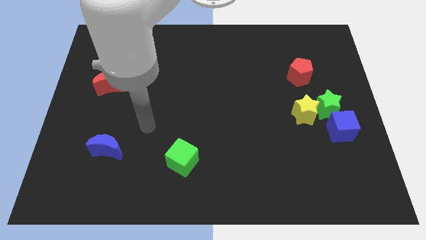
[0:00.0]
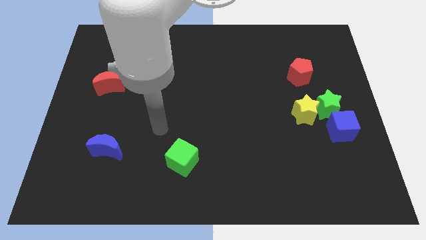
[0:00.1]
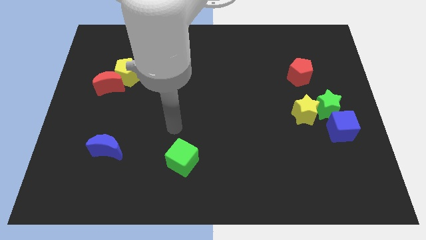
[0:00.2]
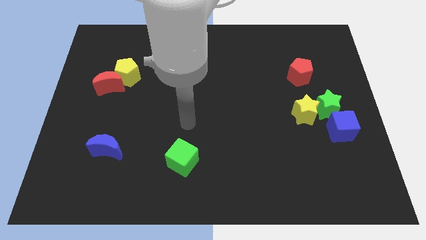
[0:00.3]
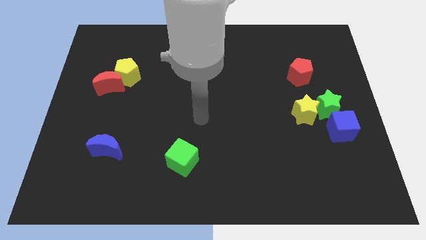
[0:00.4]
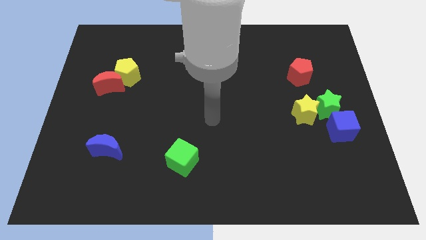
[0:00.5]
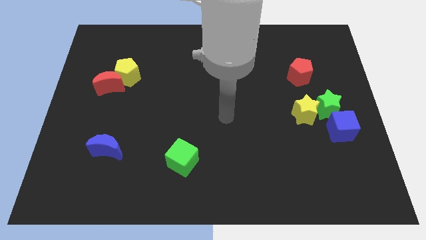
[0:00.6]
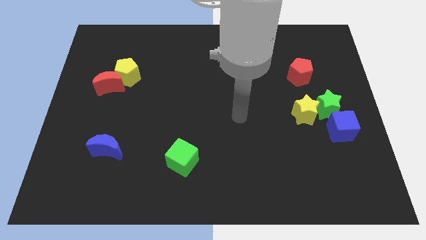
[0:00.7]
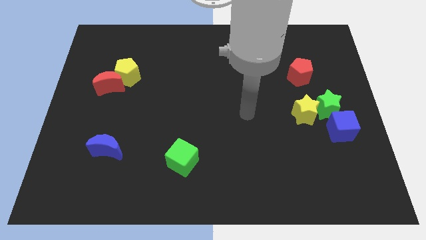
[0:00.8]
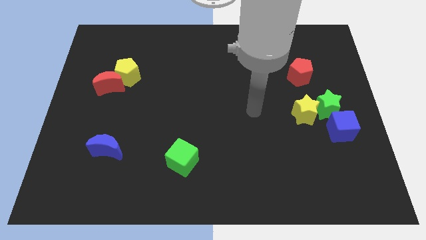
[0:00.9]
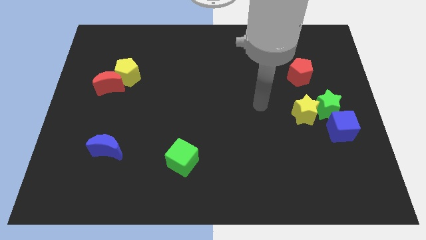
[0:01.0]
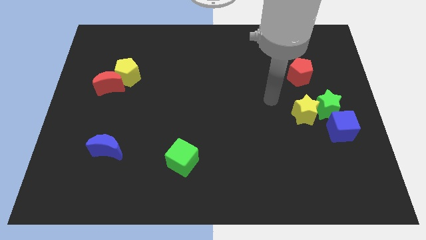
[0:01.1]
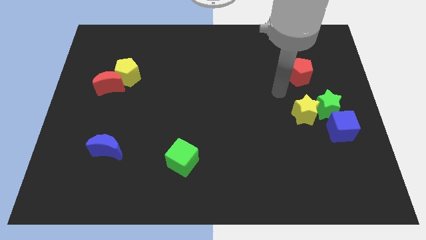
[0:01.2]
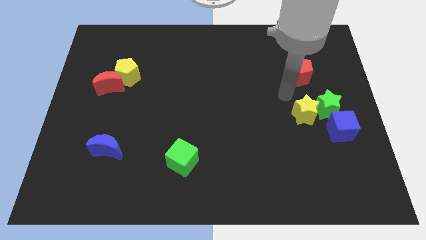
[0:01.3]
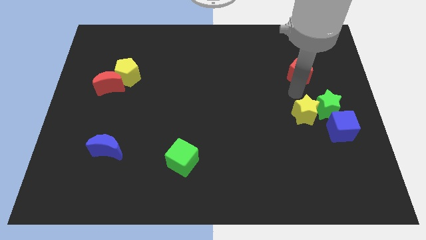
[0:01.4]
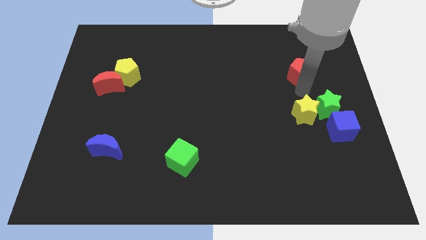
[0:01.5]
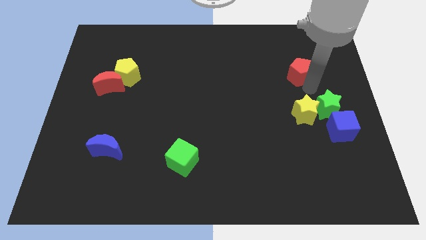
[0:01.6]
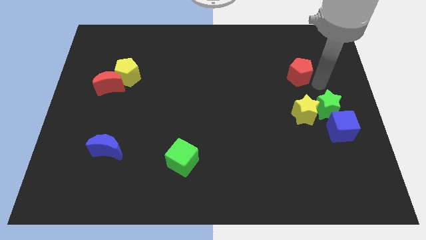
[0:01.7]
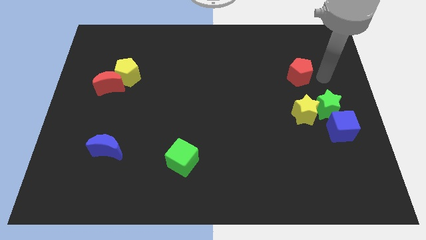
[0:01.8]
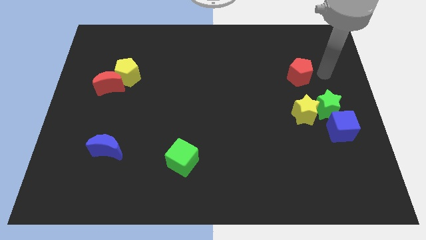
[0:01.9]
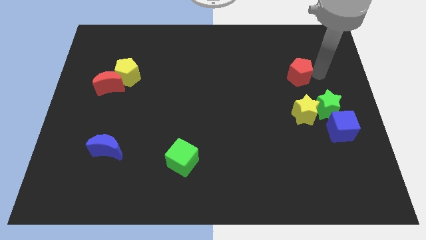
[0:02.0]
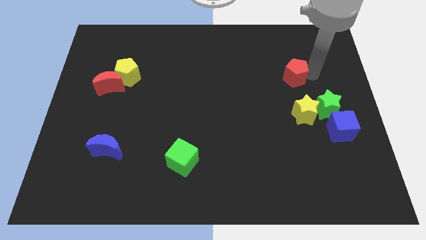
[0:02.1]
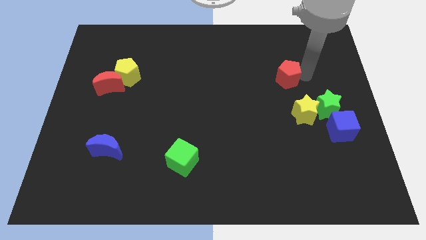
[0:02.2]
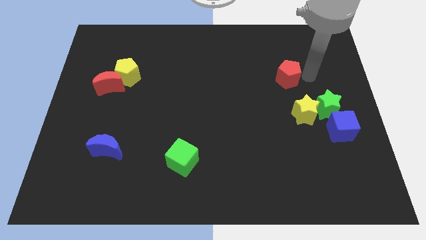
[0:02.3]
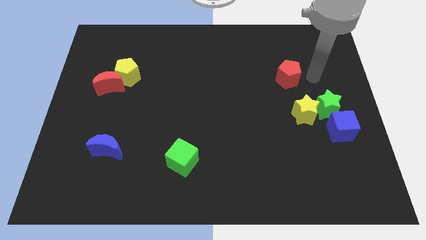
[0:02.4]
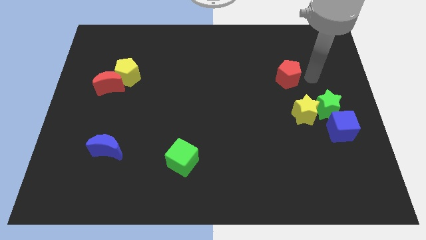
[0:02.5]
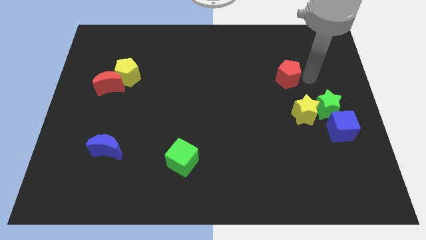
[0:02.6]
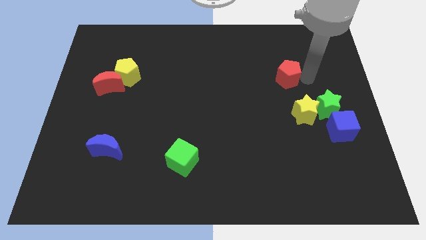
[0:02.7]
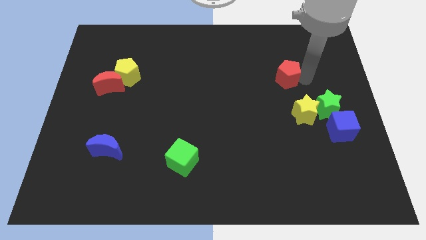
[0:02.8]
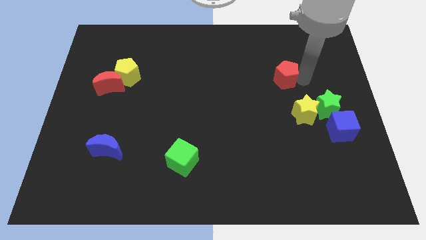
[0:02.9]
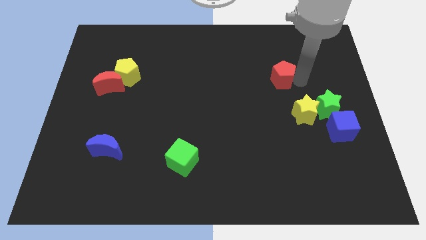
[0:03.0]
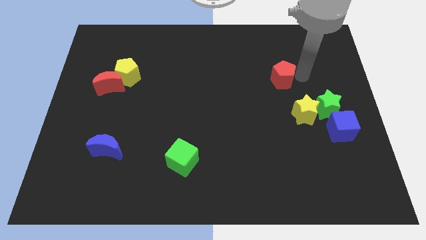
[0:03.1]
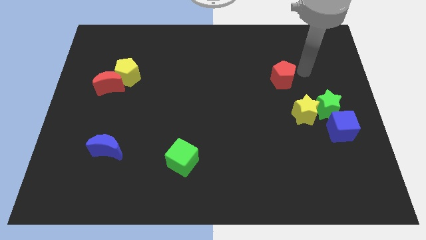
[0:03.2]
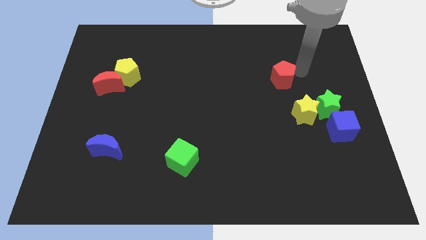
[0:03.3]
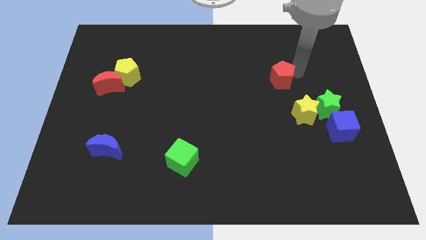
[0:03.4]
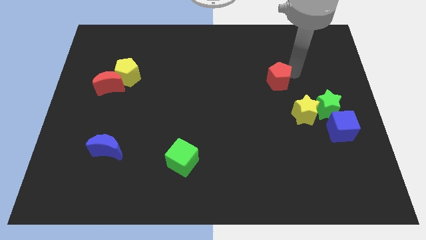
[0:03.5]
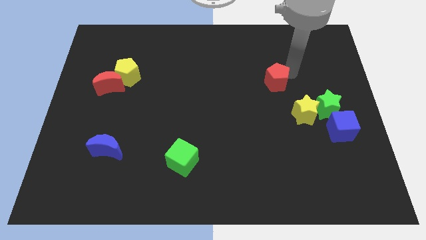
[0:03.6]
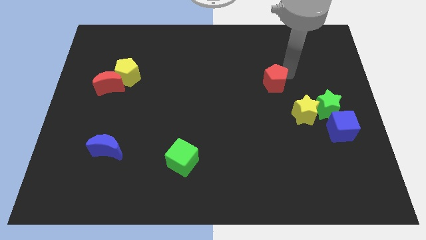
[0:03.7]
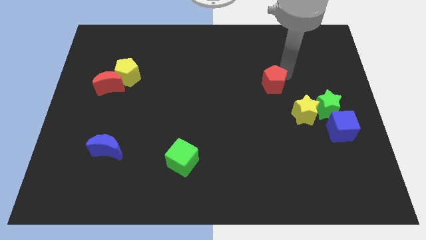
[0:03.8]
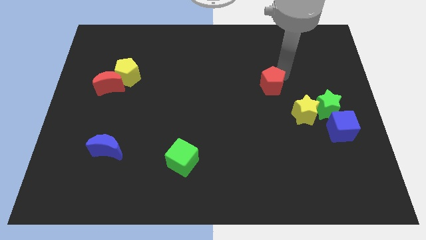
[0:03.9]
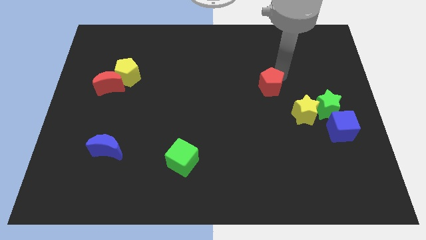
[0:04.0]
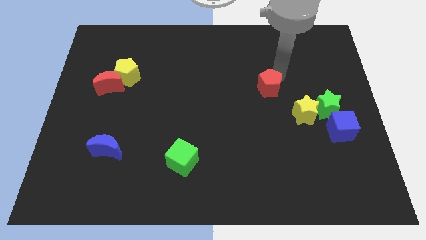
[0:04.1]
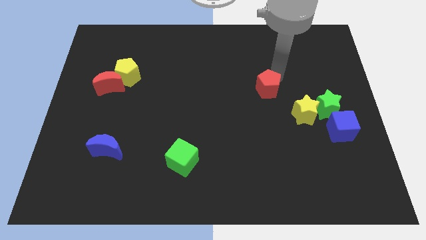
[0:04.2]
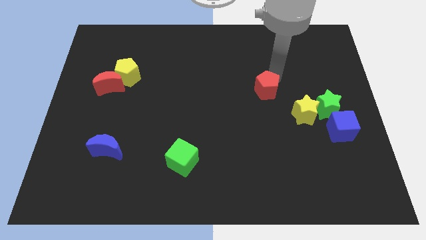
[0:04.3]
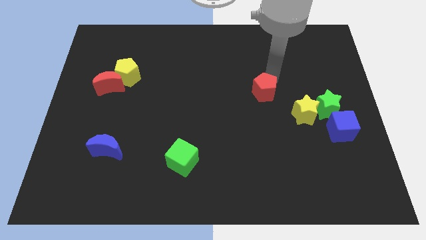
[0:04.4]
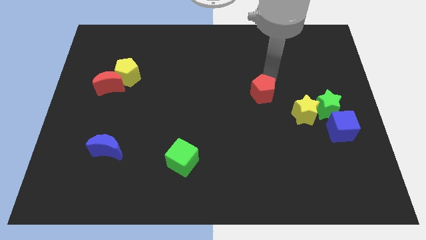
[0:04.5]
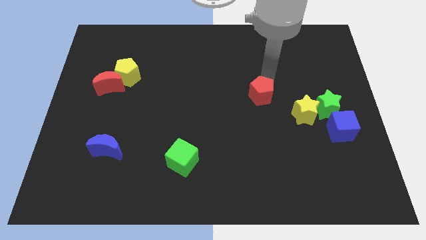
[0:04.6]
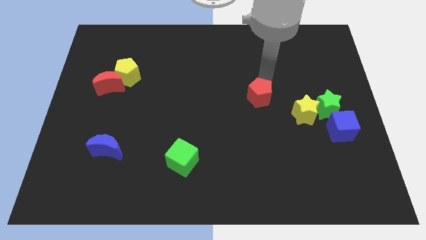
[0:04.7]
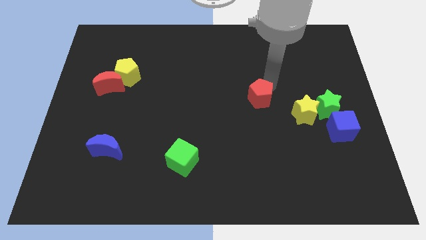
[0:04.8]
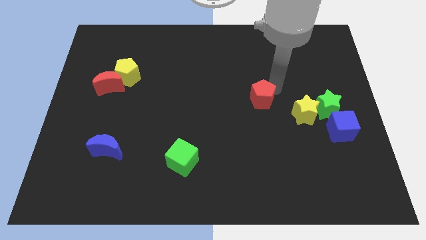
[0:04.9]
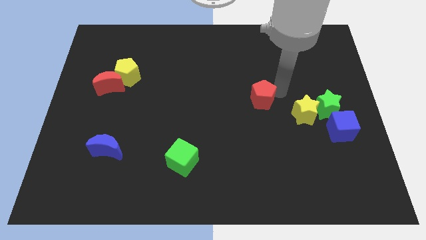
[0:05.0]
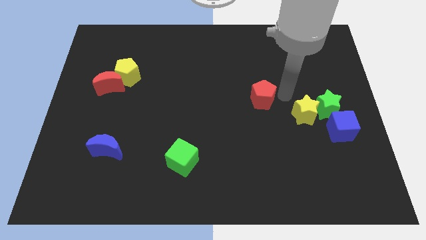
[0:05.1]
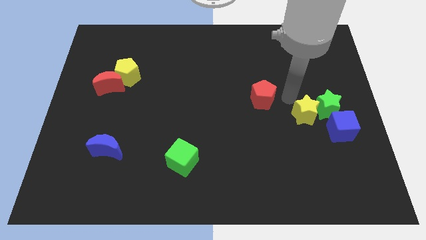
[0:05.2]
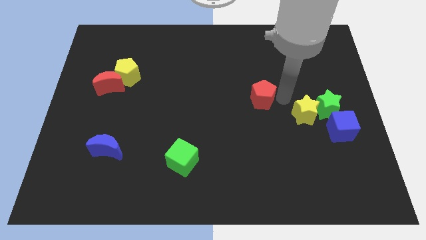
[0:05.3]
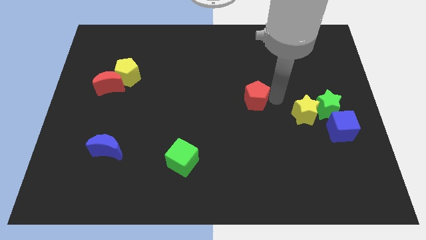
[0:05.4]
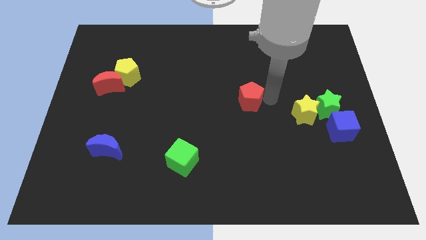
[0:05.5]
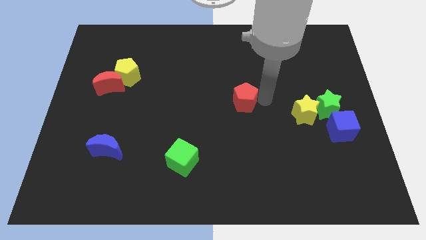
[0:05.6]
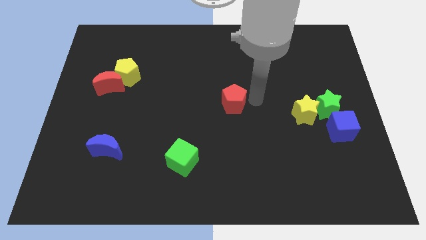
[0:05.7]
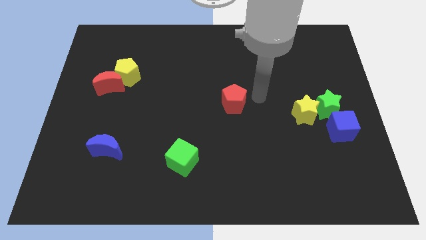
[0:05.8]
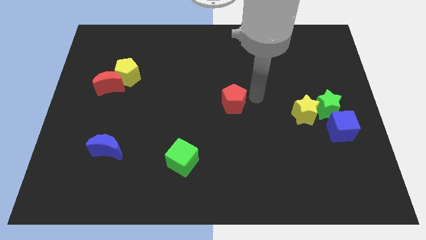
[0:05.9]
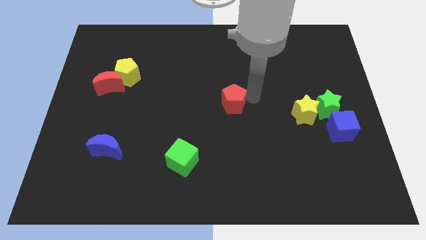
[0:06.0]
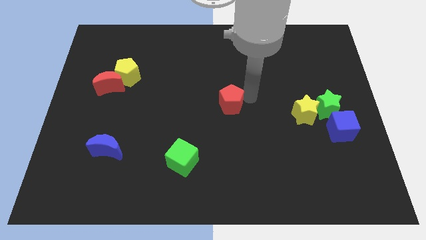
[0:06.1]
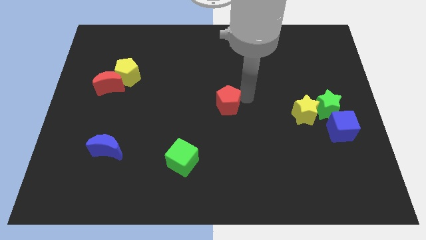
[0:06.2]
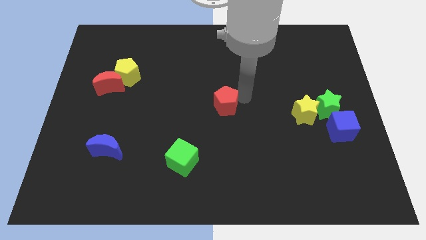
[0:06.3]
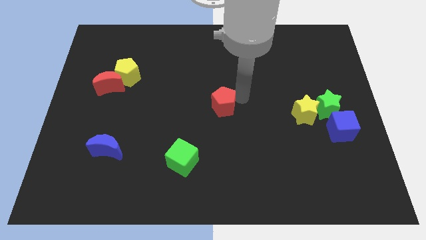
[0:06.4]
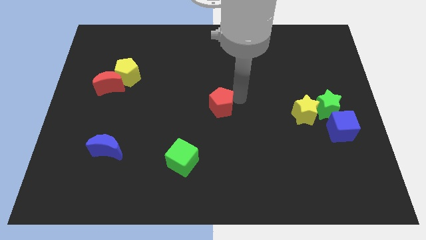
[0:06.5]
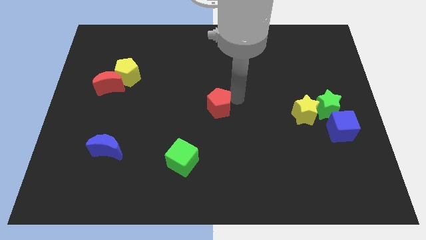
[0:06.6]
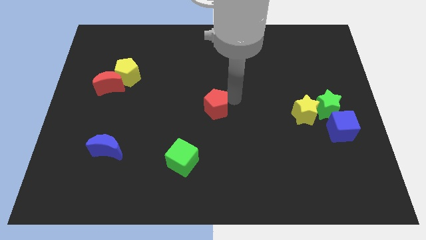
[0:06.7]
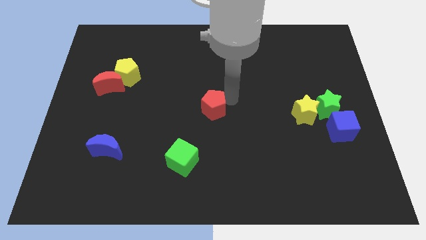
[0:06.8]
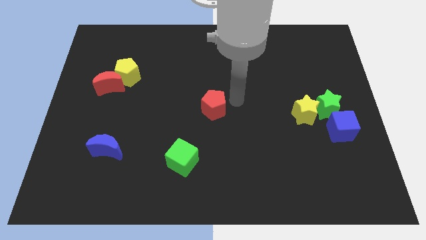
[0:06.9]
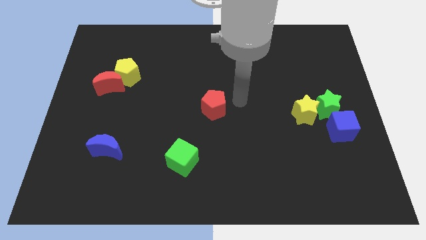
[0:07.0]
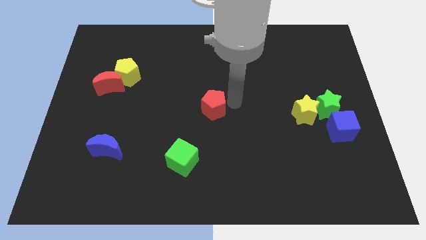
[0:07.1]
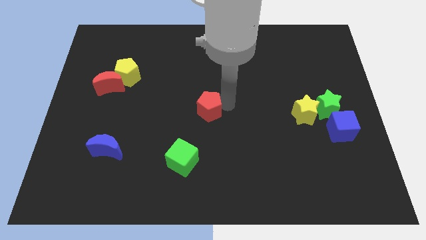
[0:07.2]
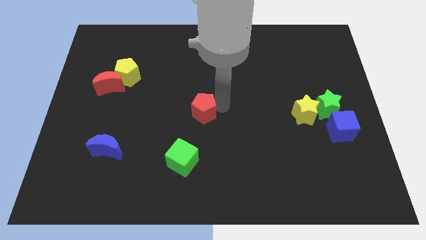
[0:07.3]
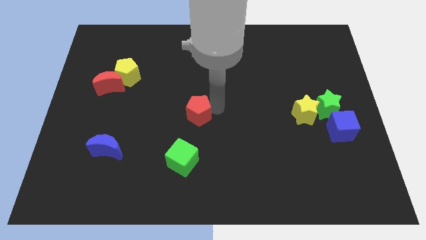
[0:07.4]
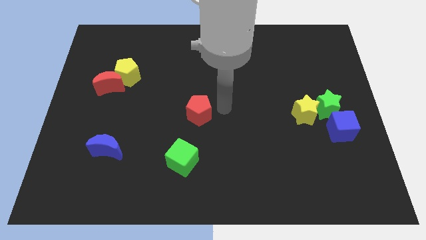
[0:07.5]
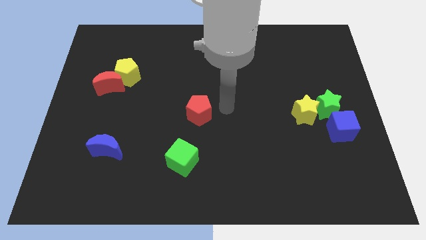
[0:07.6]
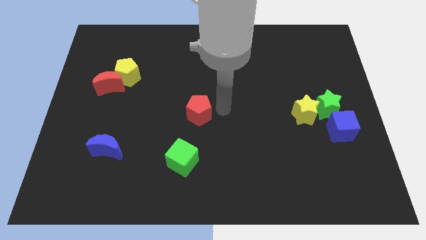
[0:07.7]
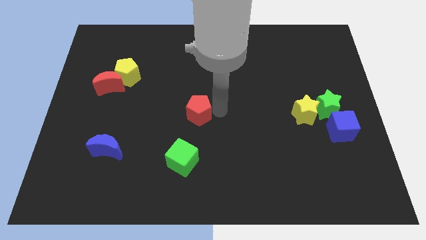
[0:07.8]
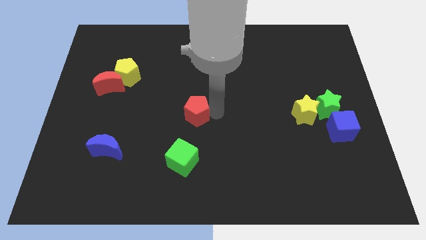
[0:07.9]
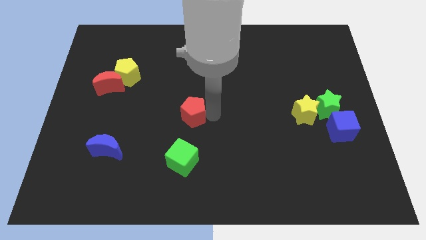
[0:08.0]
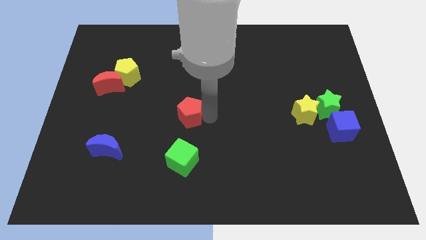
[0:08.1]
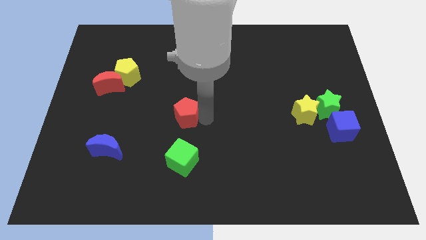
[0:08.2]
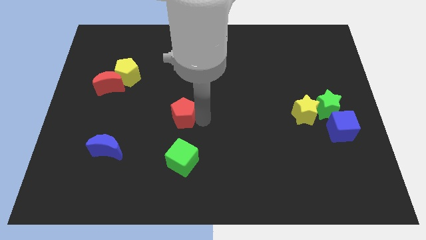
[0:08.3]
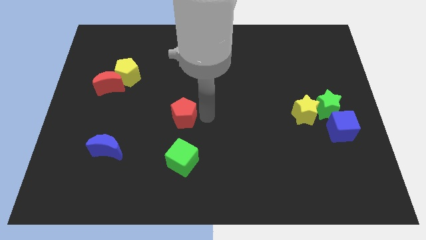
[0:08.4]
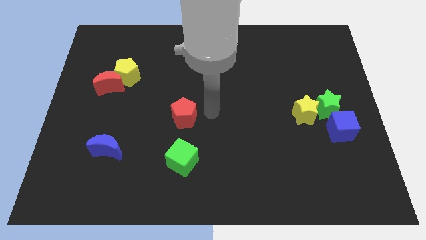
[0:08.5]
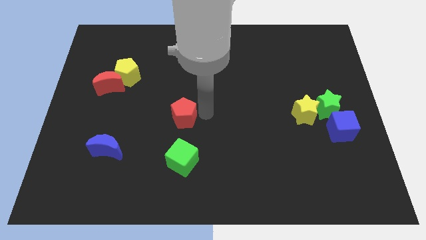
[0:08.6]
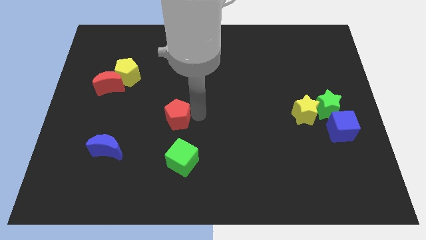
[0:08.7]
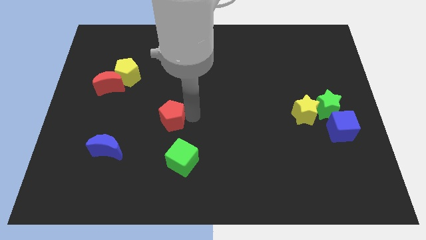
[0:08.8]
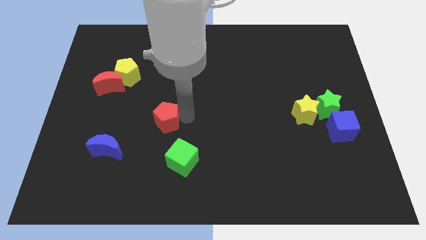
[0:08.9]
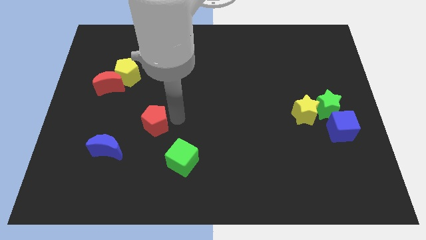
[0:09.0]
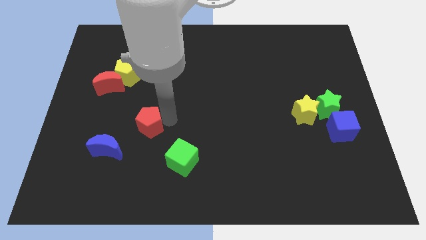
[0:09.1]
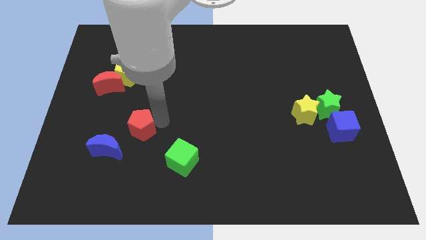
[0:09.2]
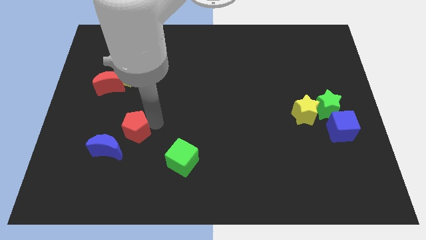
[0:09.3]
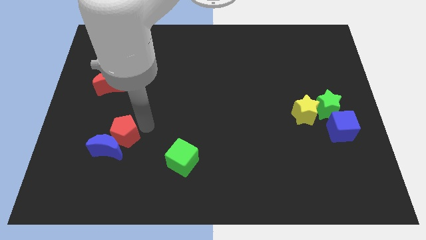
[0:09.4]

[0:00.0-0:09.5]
push the red pentagon next to the blue moon
